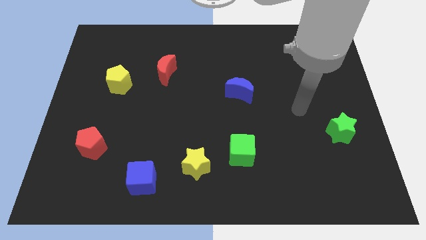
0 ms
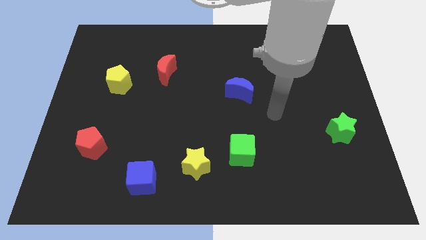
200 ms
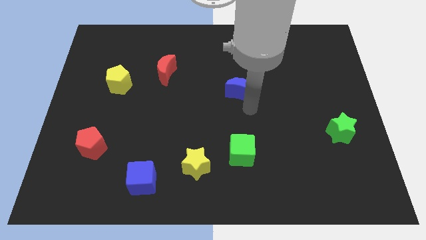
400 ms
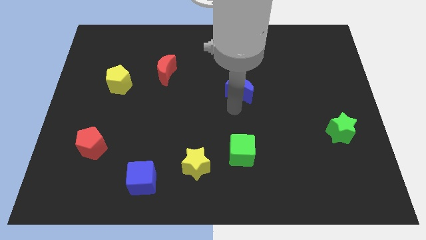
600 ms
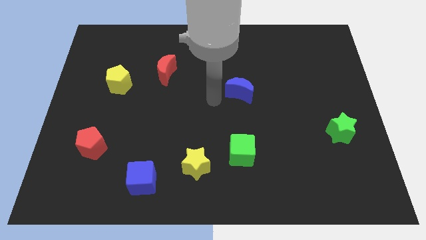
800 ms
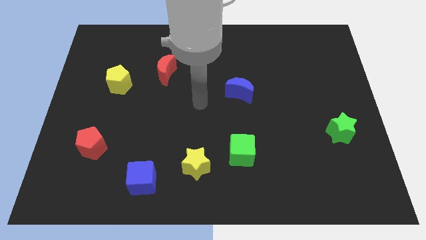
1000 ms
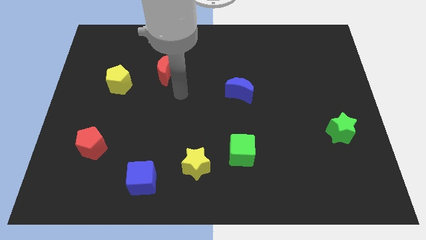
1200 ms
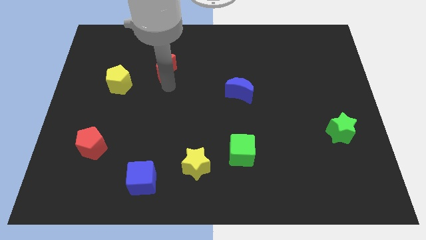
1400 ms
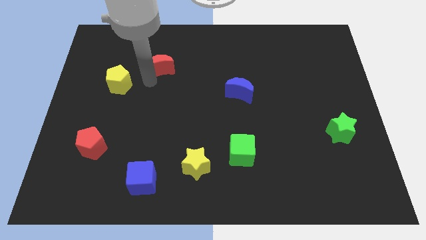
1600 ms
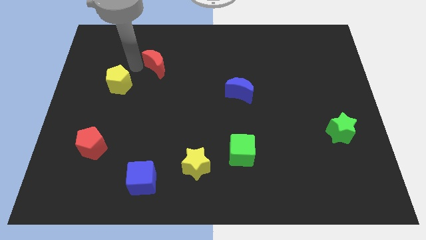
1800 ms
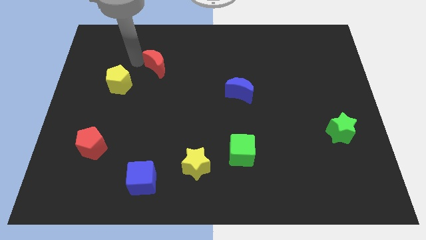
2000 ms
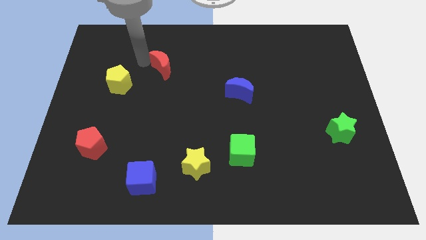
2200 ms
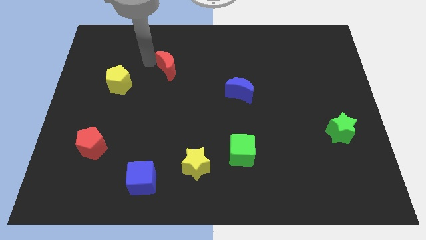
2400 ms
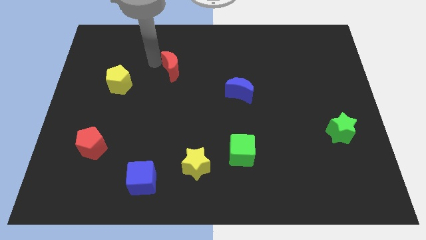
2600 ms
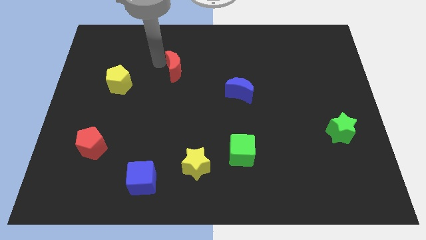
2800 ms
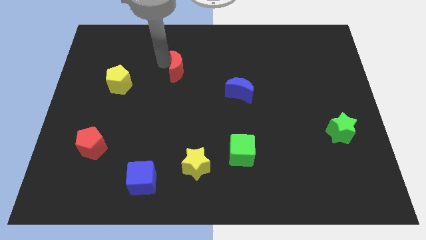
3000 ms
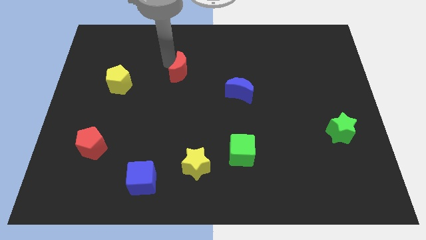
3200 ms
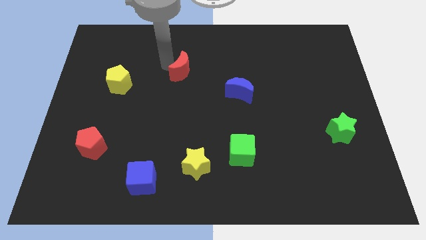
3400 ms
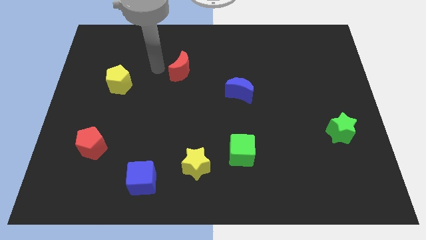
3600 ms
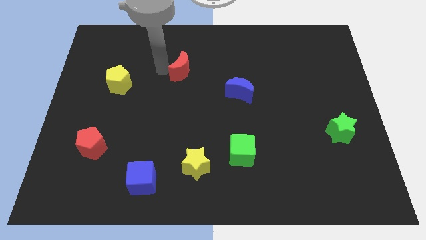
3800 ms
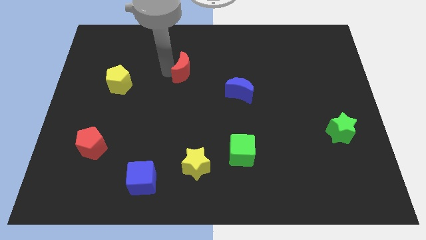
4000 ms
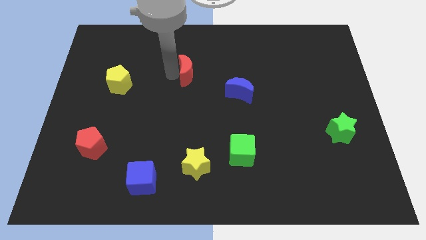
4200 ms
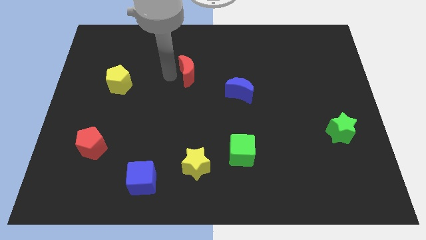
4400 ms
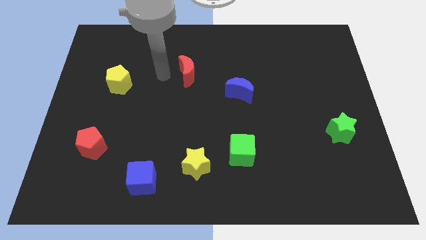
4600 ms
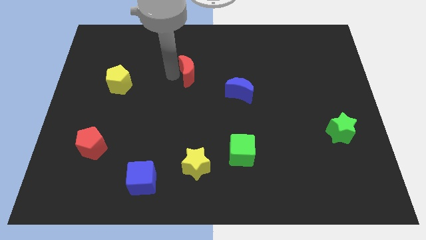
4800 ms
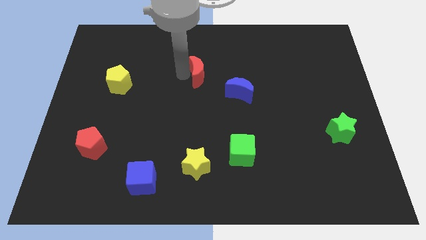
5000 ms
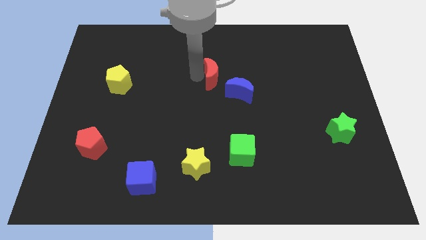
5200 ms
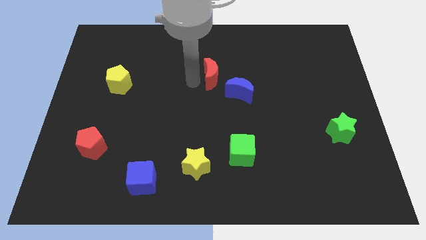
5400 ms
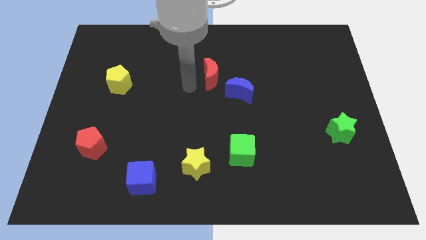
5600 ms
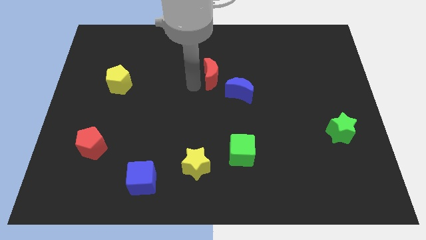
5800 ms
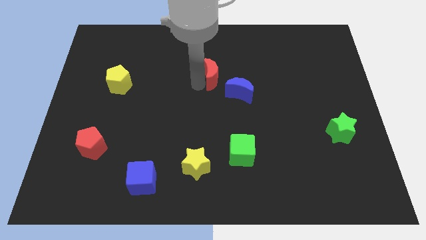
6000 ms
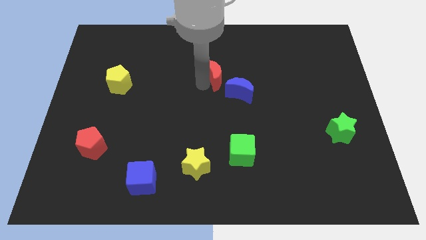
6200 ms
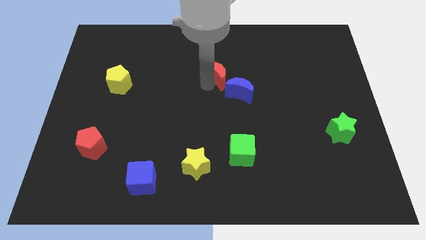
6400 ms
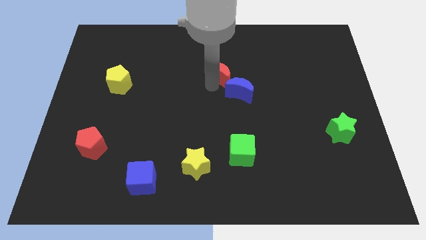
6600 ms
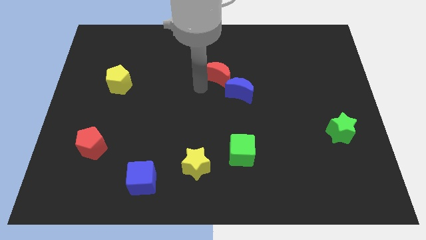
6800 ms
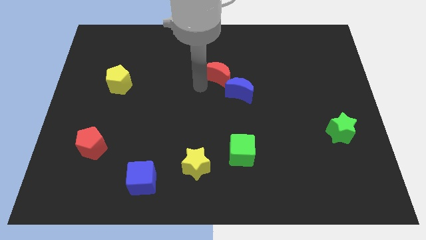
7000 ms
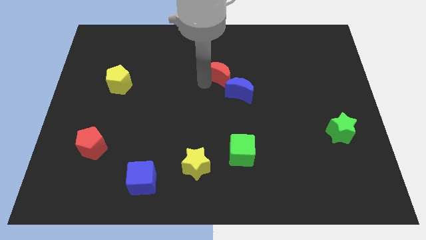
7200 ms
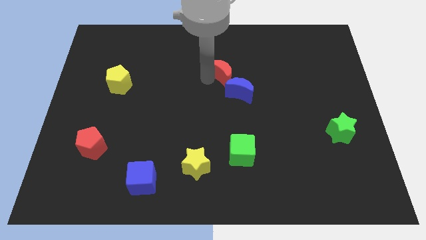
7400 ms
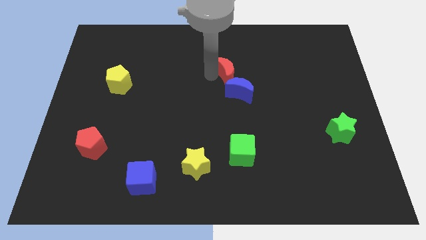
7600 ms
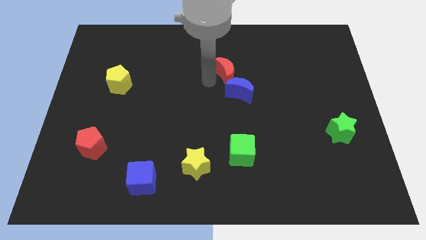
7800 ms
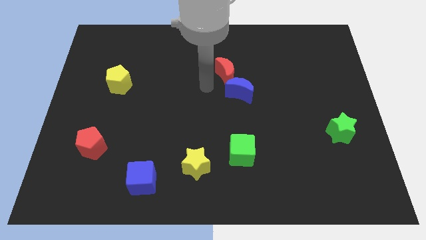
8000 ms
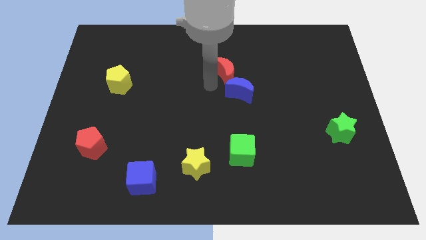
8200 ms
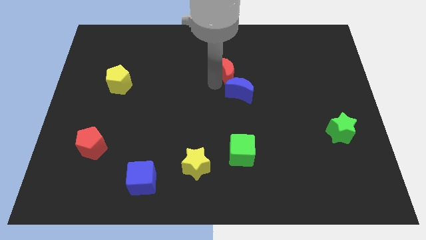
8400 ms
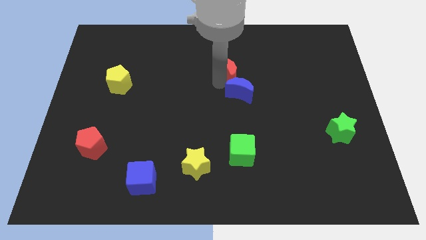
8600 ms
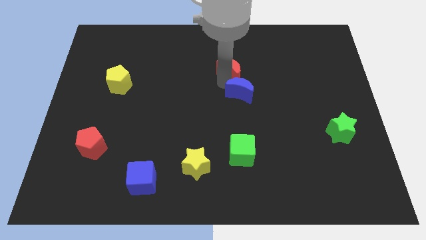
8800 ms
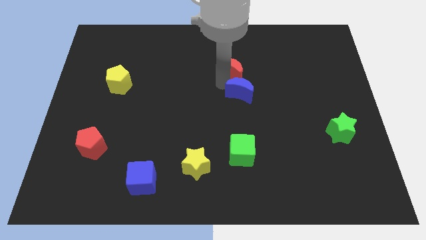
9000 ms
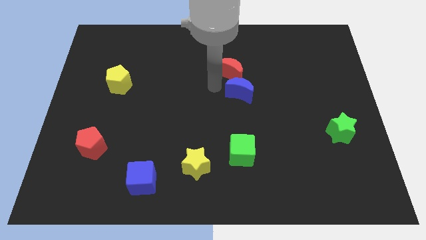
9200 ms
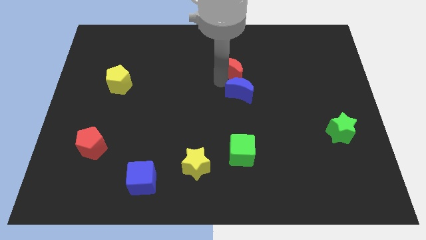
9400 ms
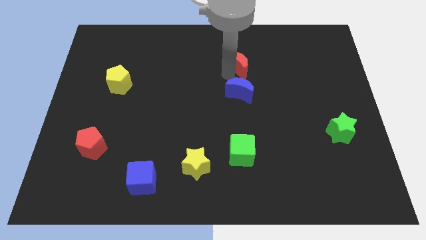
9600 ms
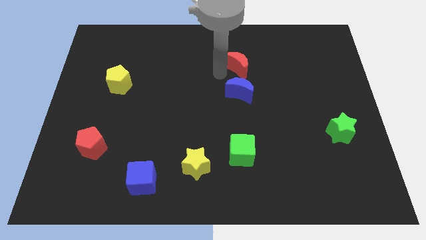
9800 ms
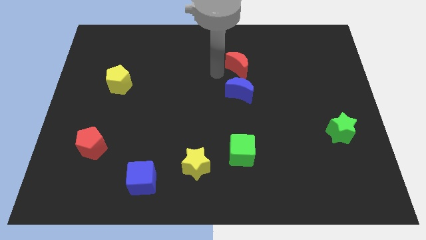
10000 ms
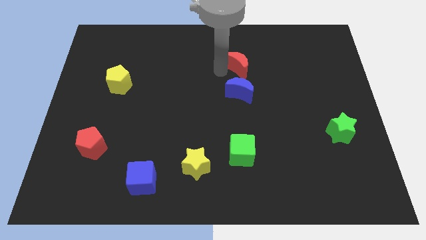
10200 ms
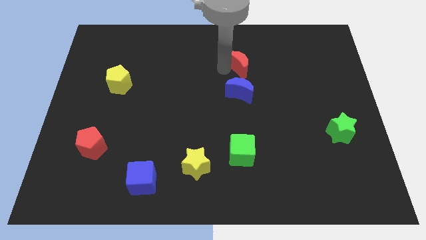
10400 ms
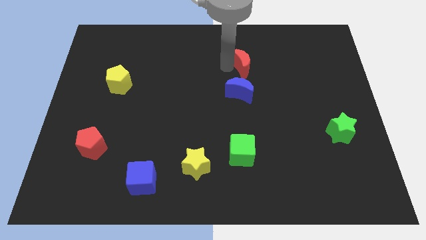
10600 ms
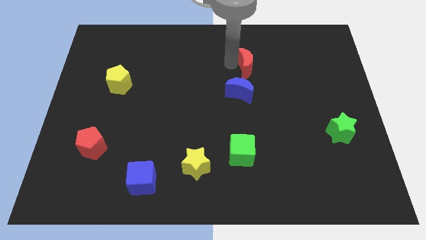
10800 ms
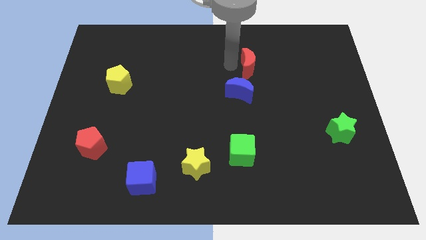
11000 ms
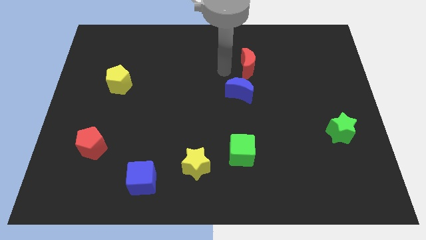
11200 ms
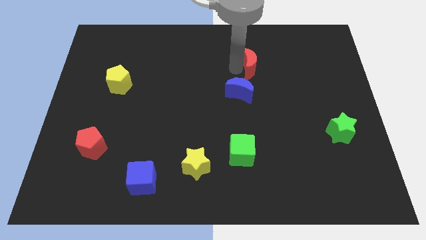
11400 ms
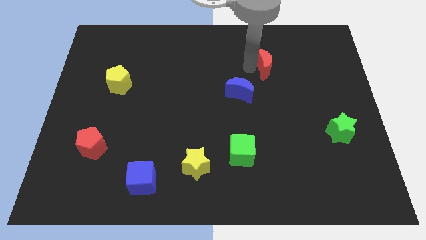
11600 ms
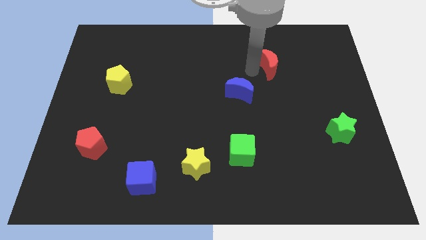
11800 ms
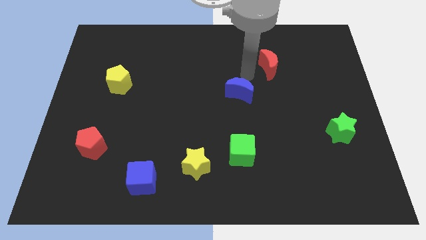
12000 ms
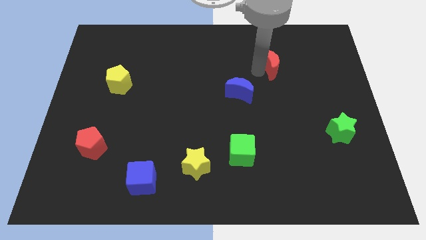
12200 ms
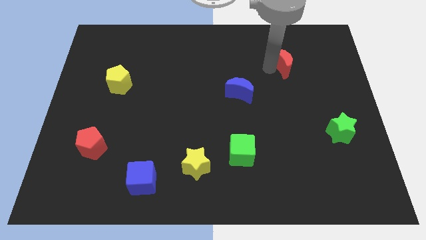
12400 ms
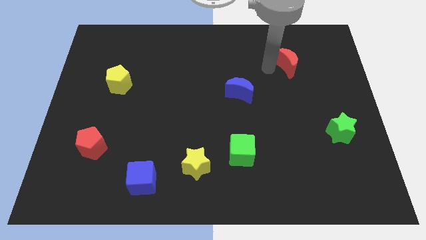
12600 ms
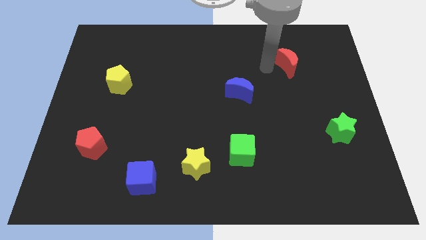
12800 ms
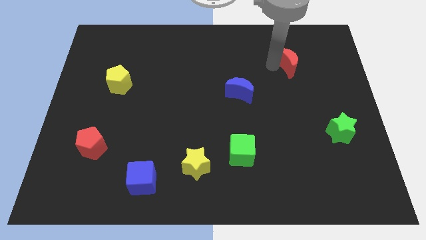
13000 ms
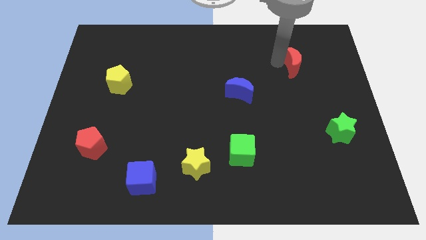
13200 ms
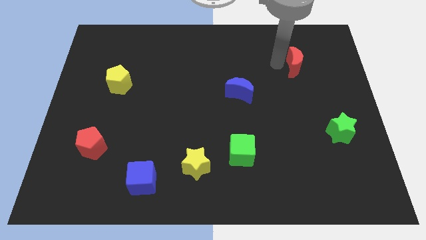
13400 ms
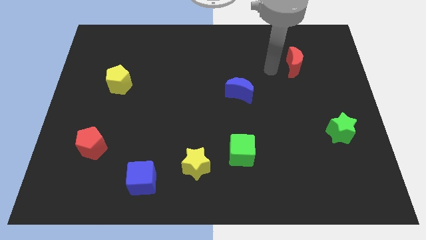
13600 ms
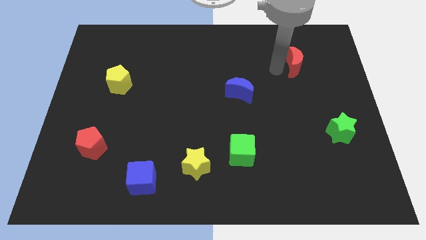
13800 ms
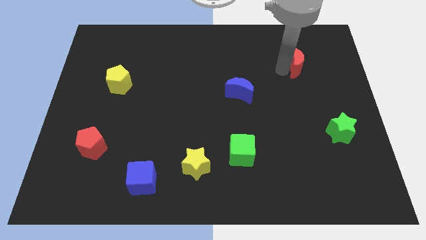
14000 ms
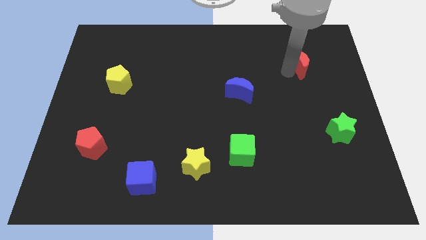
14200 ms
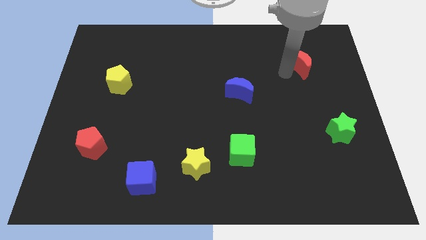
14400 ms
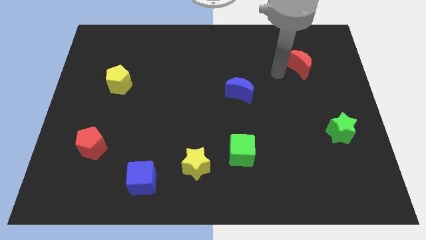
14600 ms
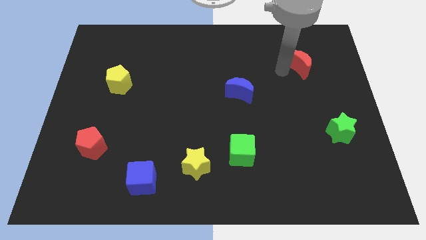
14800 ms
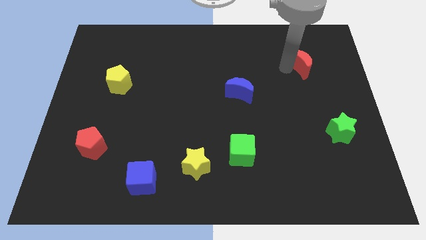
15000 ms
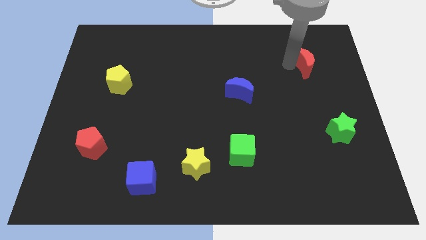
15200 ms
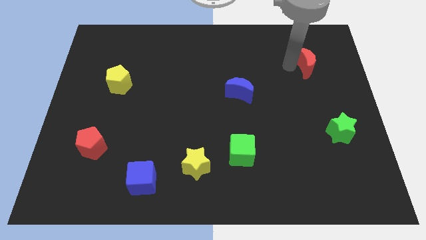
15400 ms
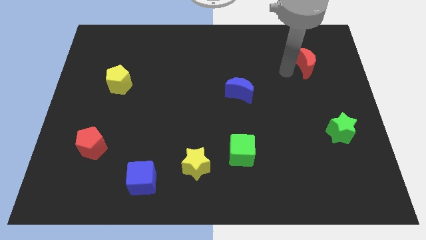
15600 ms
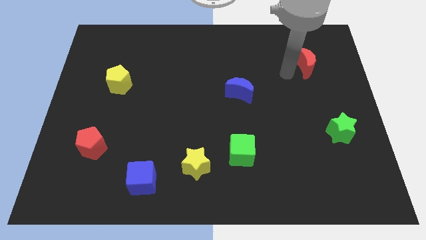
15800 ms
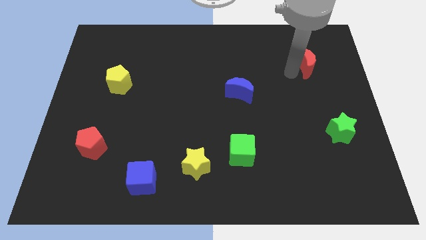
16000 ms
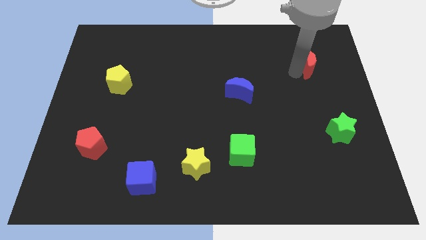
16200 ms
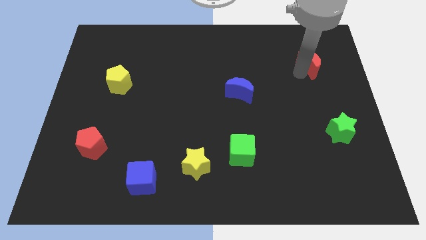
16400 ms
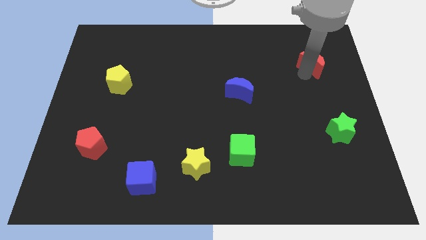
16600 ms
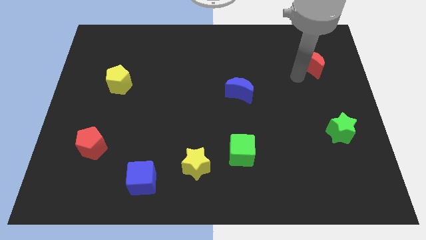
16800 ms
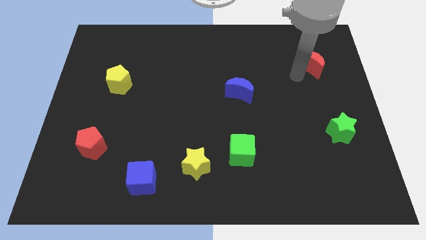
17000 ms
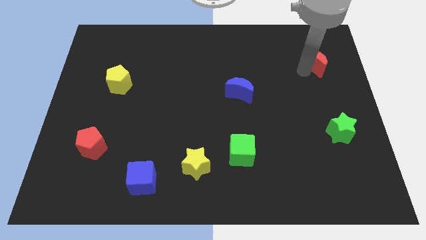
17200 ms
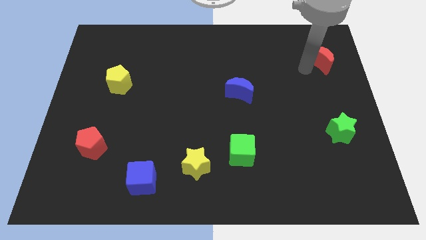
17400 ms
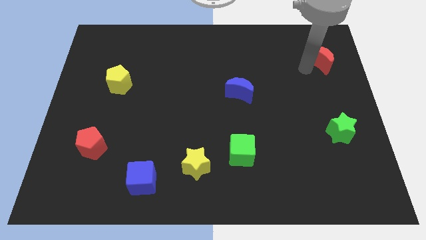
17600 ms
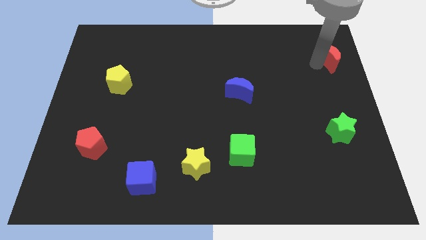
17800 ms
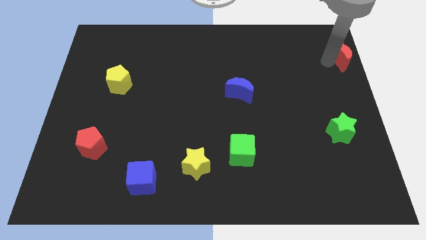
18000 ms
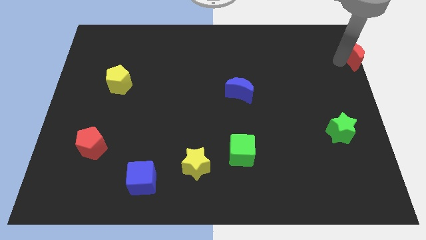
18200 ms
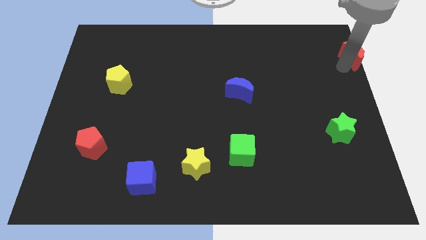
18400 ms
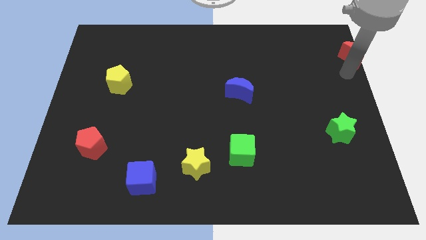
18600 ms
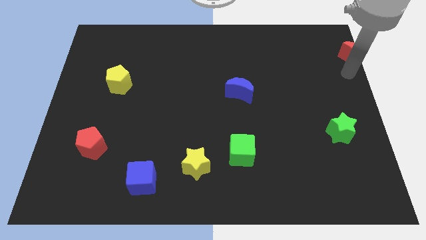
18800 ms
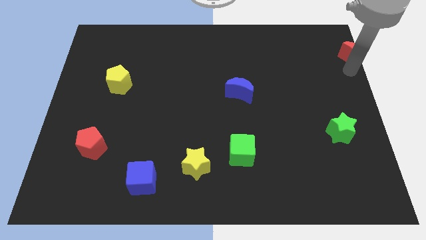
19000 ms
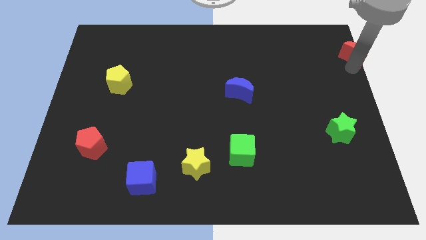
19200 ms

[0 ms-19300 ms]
put the red moon to the top right of the board
